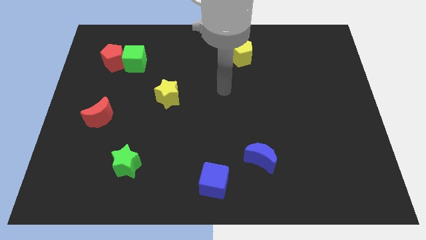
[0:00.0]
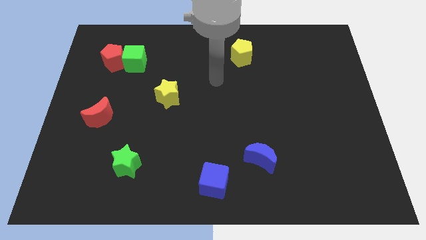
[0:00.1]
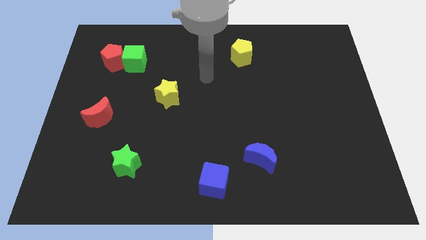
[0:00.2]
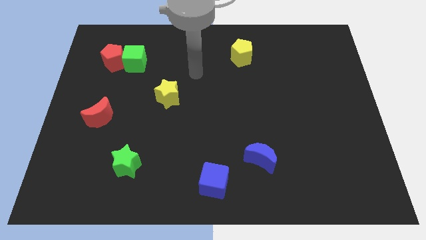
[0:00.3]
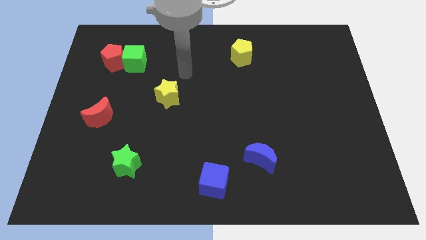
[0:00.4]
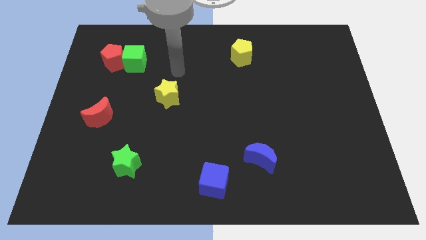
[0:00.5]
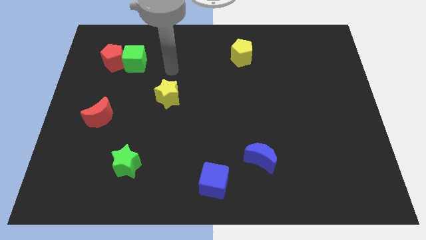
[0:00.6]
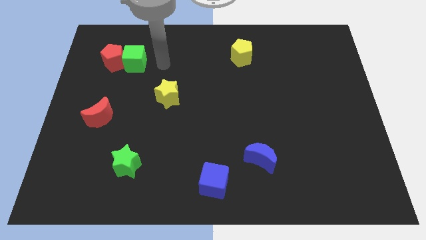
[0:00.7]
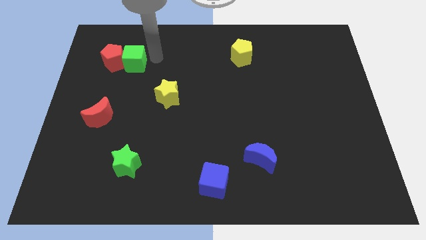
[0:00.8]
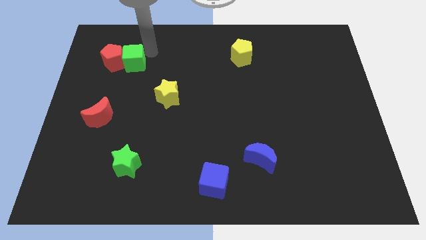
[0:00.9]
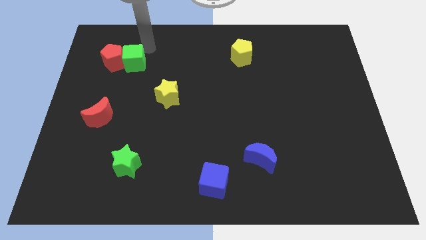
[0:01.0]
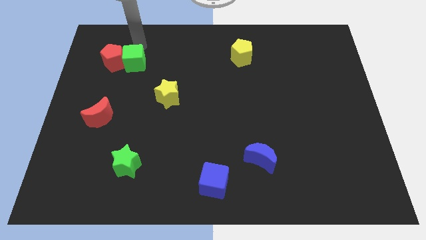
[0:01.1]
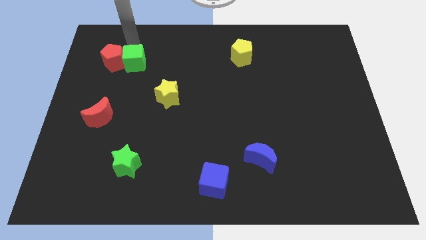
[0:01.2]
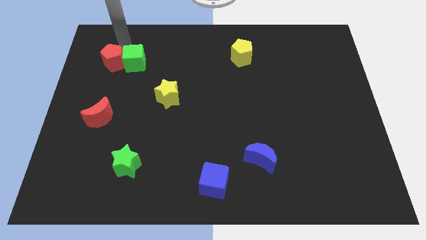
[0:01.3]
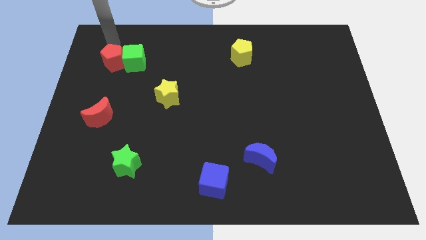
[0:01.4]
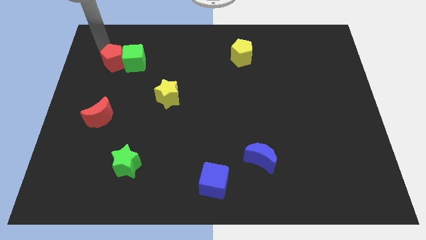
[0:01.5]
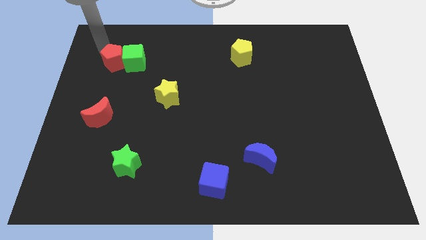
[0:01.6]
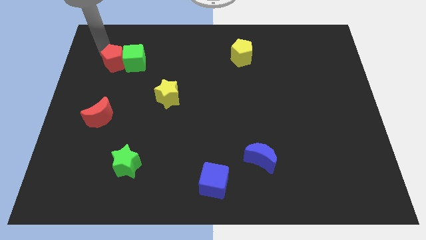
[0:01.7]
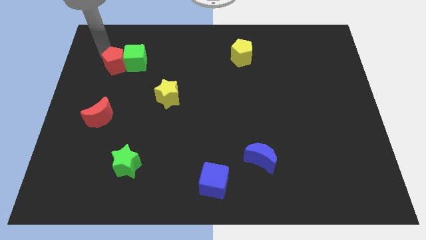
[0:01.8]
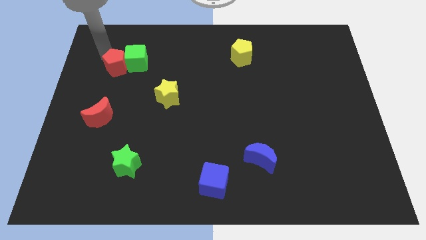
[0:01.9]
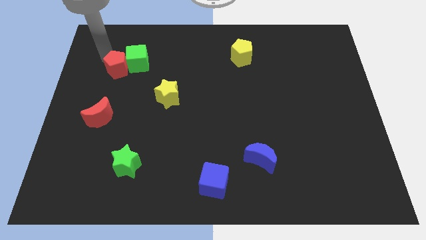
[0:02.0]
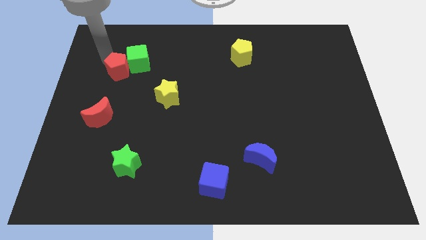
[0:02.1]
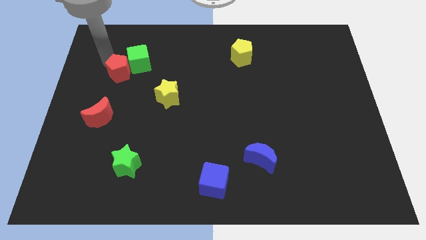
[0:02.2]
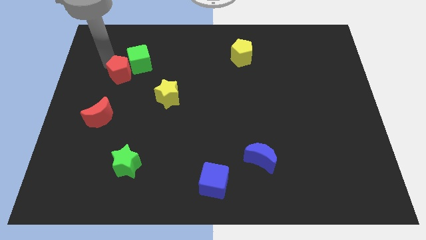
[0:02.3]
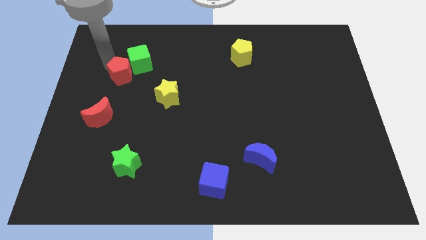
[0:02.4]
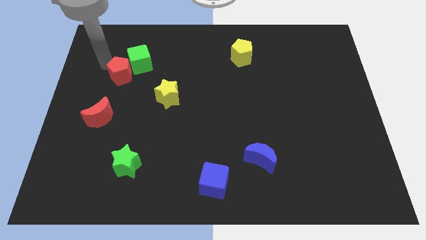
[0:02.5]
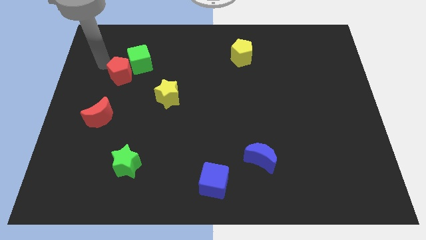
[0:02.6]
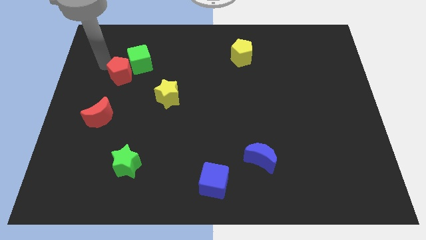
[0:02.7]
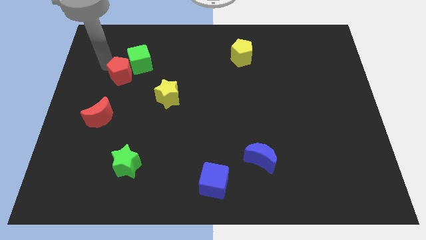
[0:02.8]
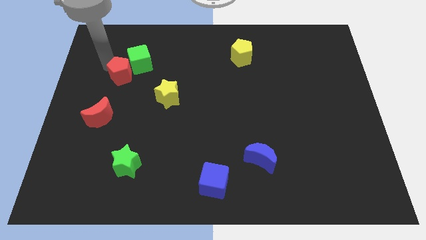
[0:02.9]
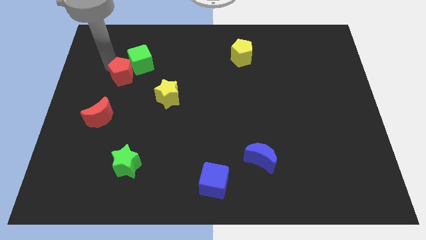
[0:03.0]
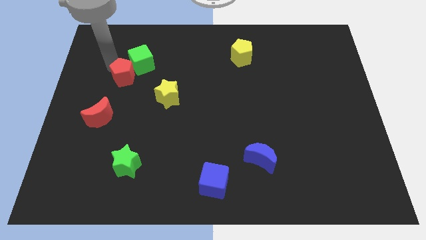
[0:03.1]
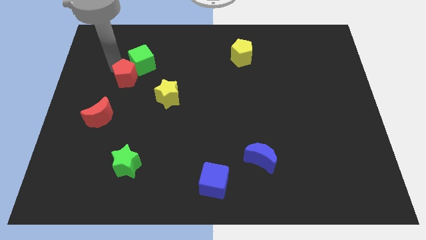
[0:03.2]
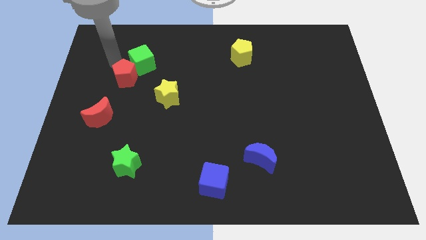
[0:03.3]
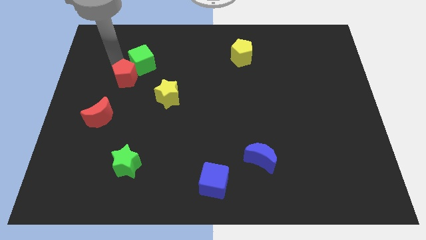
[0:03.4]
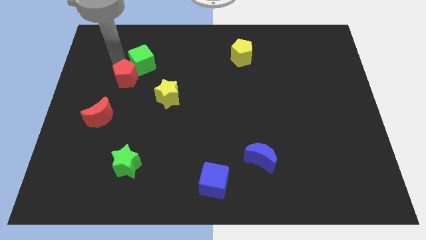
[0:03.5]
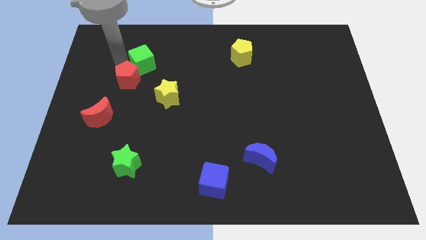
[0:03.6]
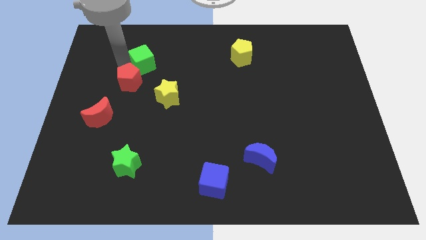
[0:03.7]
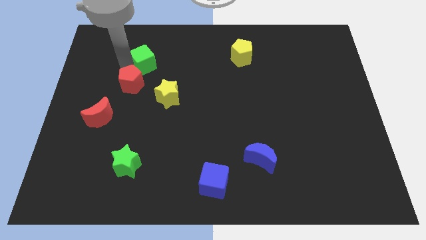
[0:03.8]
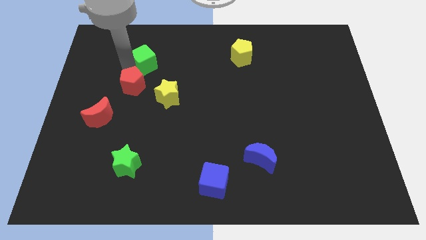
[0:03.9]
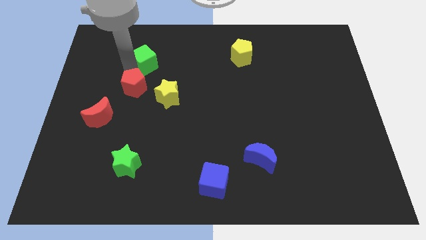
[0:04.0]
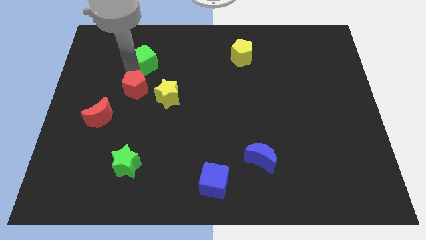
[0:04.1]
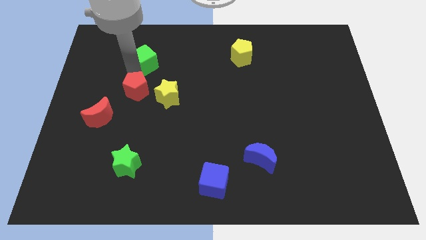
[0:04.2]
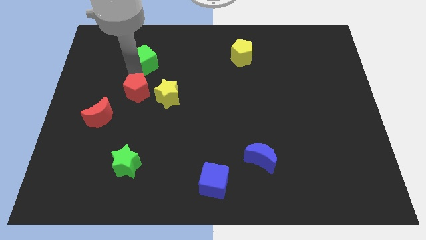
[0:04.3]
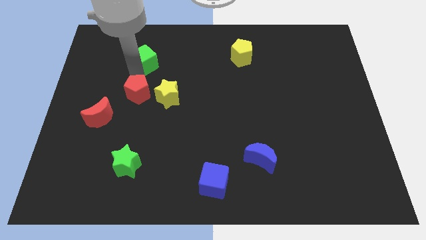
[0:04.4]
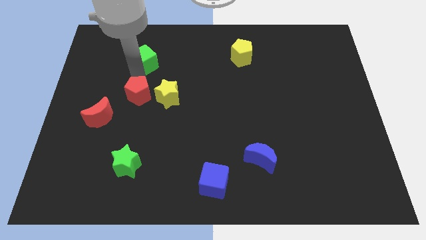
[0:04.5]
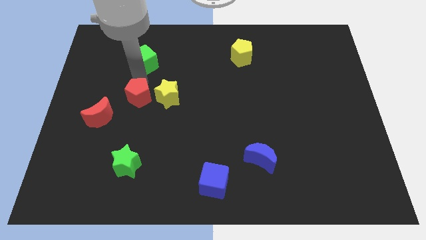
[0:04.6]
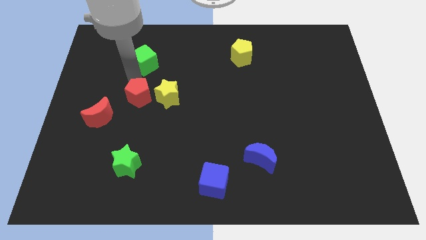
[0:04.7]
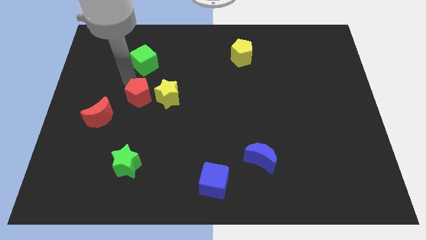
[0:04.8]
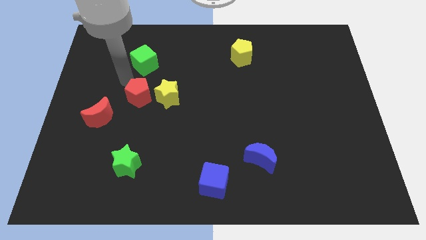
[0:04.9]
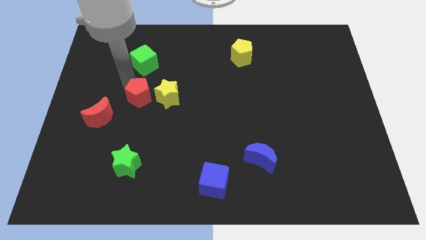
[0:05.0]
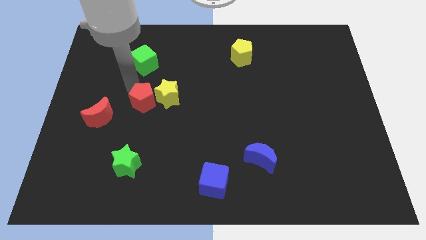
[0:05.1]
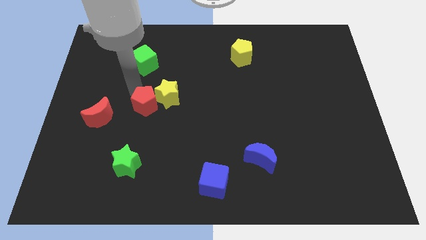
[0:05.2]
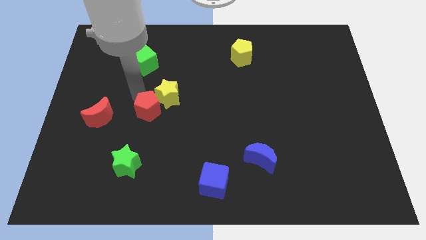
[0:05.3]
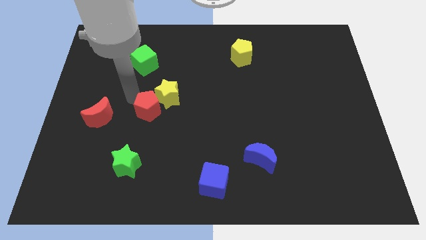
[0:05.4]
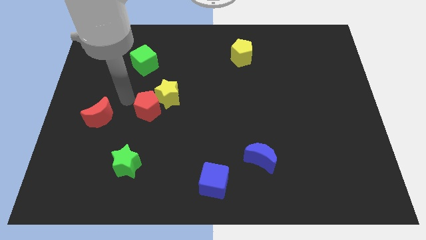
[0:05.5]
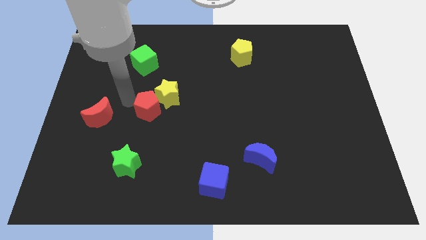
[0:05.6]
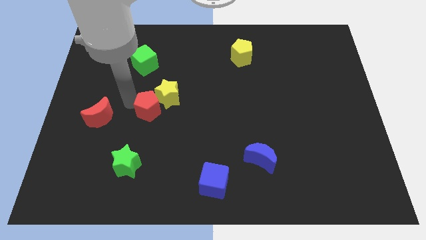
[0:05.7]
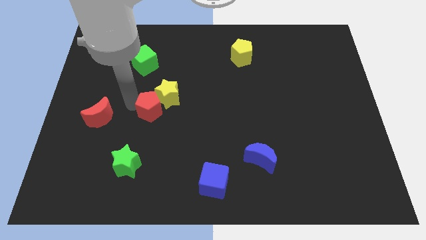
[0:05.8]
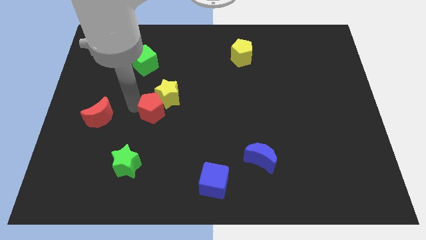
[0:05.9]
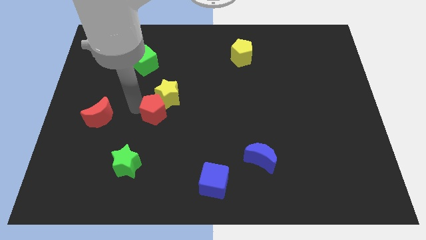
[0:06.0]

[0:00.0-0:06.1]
slide the red pentagon diagonally downwards and right

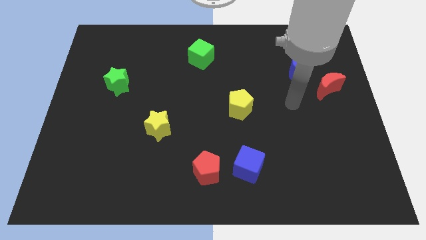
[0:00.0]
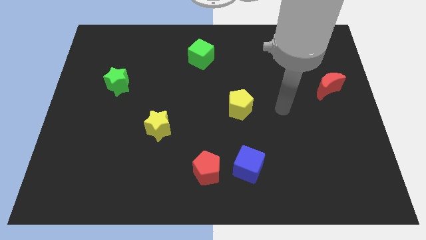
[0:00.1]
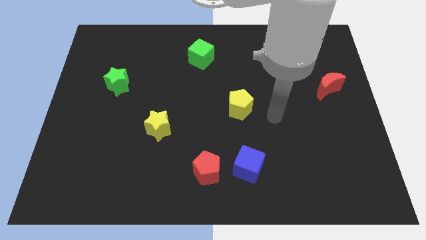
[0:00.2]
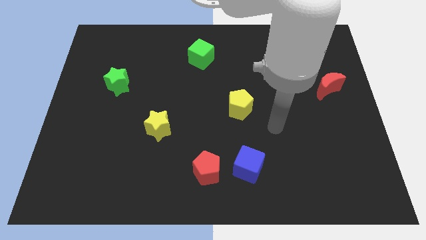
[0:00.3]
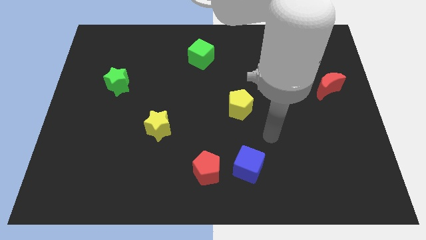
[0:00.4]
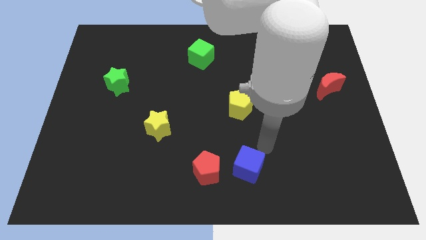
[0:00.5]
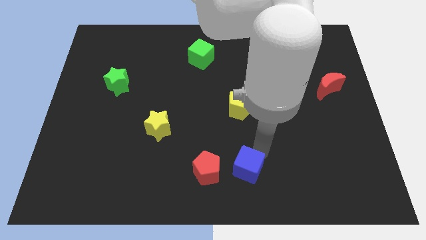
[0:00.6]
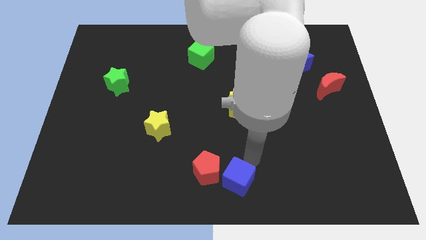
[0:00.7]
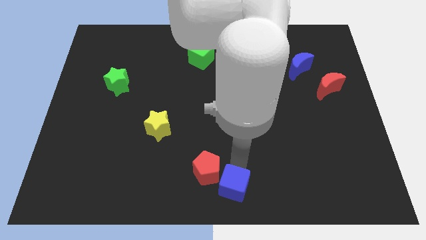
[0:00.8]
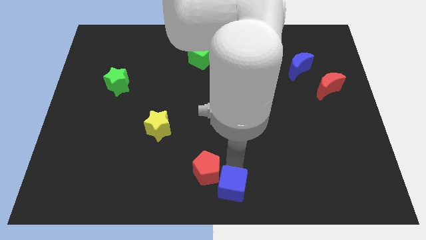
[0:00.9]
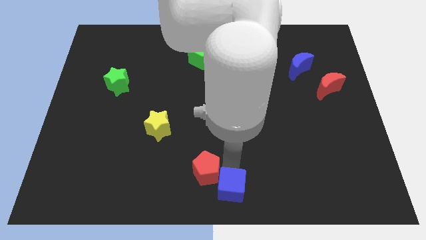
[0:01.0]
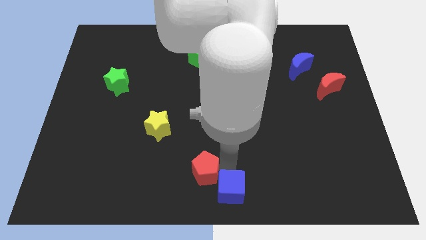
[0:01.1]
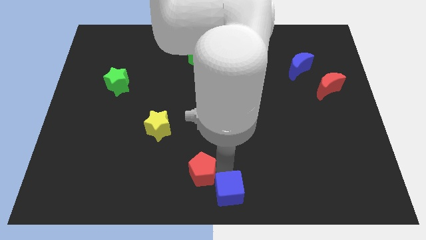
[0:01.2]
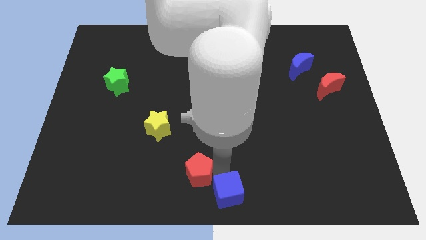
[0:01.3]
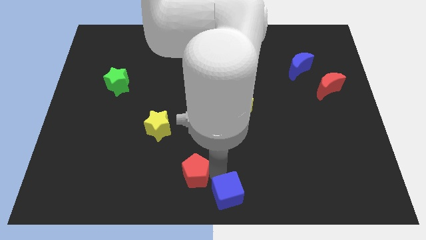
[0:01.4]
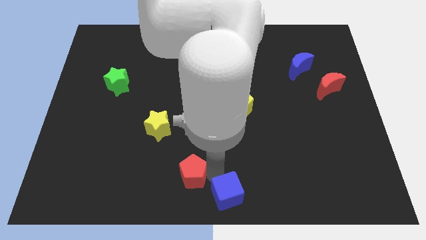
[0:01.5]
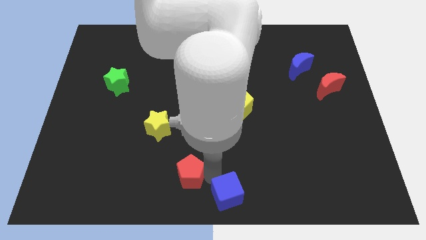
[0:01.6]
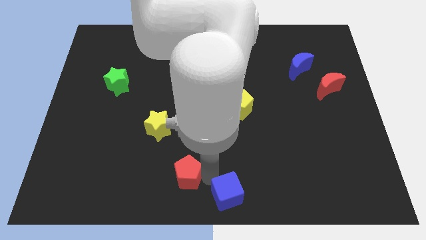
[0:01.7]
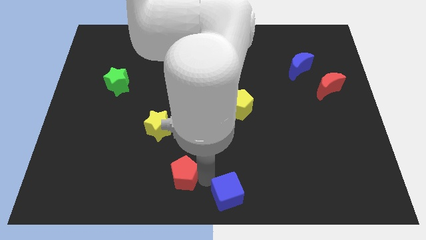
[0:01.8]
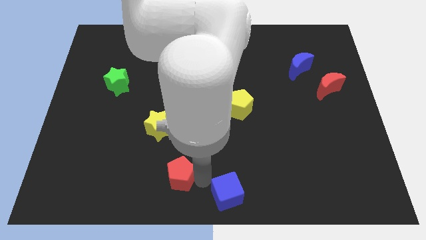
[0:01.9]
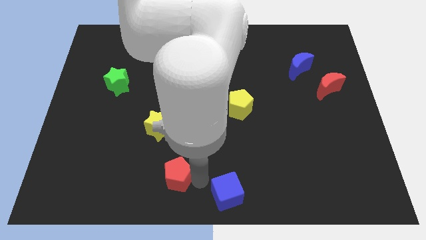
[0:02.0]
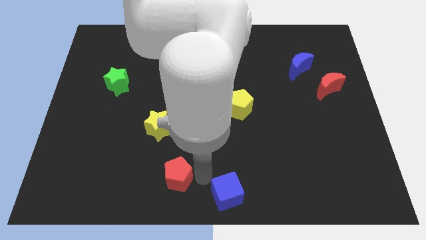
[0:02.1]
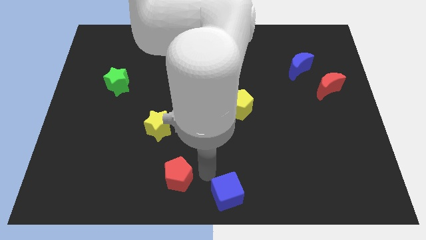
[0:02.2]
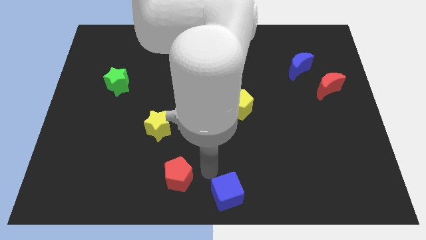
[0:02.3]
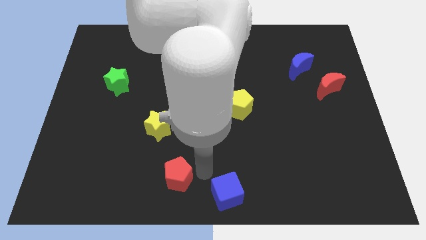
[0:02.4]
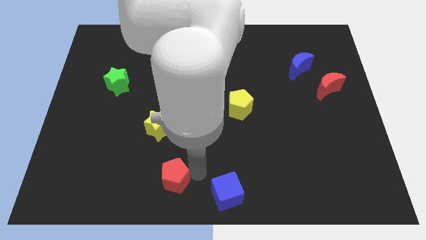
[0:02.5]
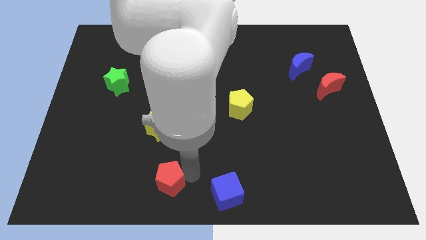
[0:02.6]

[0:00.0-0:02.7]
move the red pentagon slightly to the left
